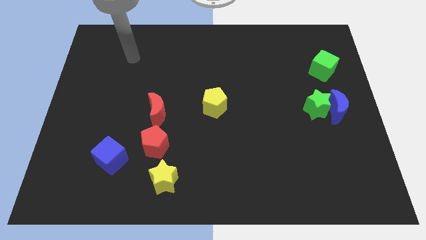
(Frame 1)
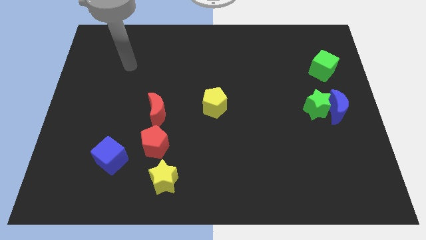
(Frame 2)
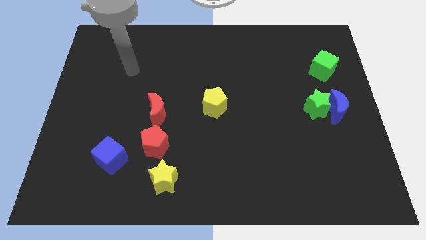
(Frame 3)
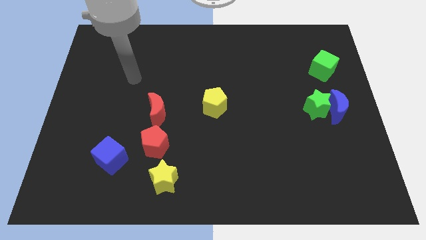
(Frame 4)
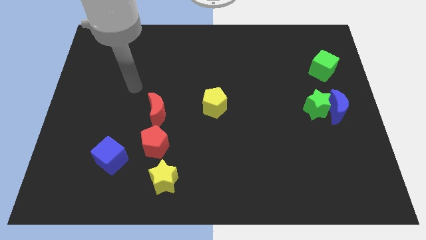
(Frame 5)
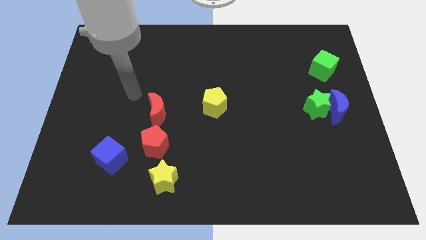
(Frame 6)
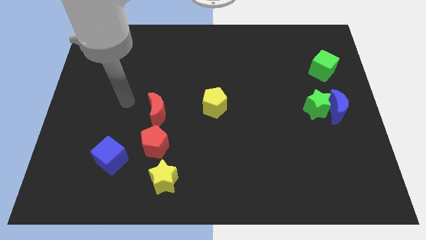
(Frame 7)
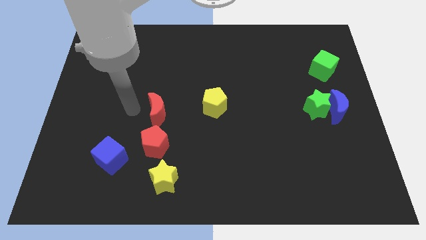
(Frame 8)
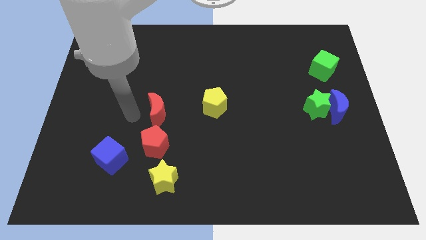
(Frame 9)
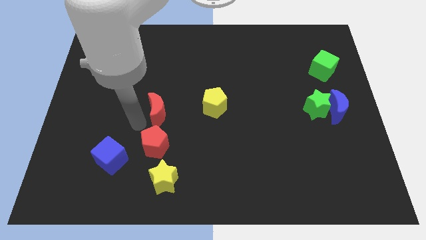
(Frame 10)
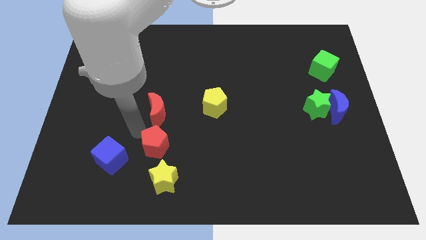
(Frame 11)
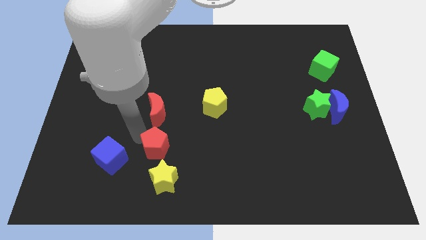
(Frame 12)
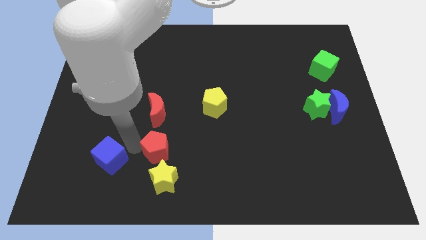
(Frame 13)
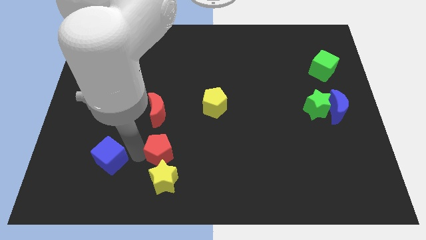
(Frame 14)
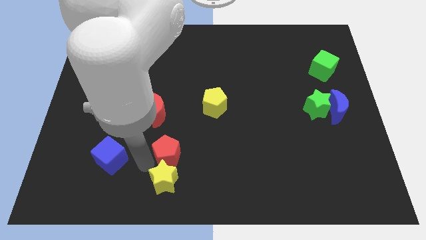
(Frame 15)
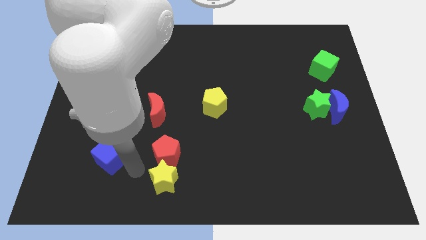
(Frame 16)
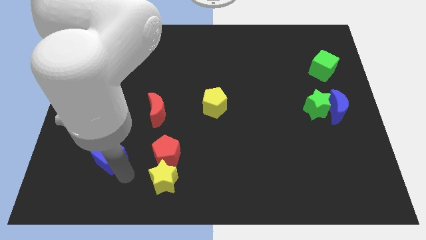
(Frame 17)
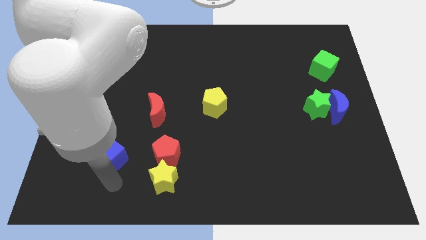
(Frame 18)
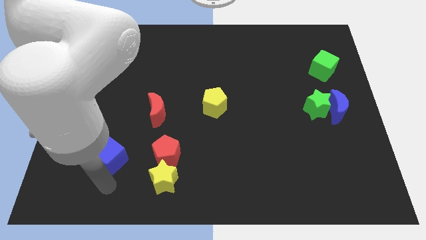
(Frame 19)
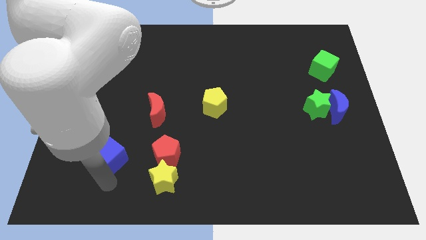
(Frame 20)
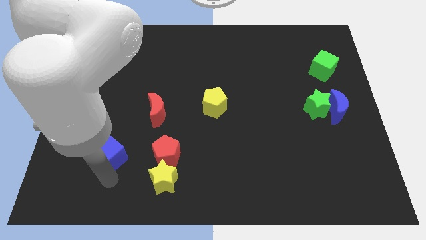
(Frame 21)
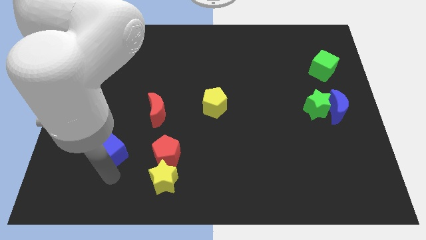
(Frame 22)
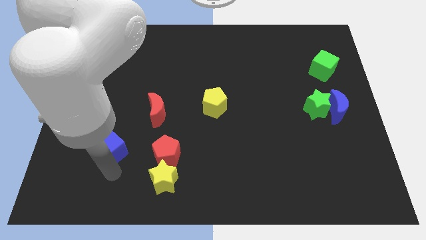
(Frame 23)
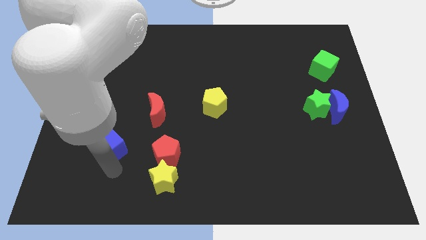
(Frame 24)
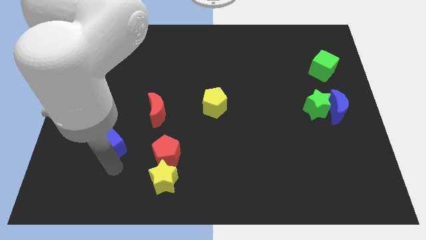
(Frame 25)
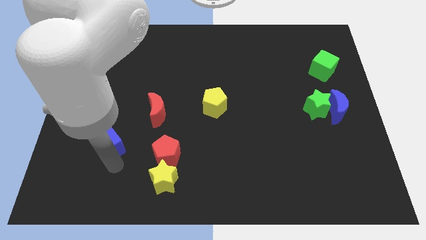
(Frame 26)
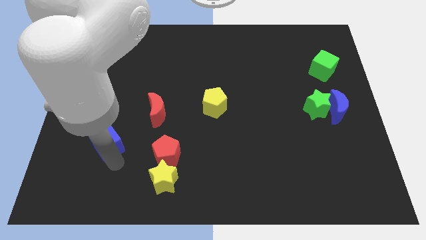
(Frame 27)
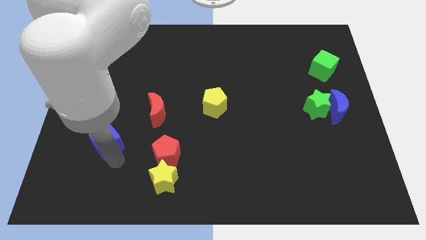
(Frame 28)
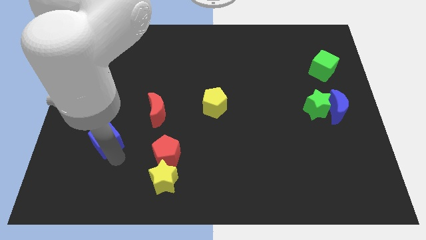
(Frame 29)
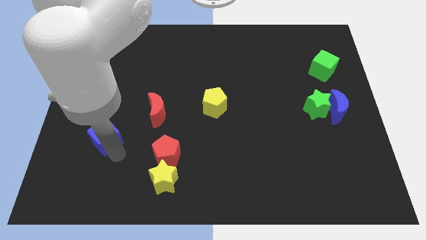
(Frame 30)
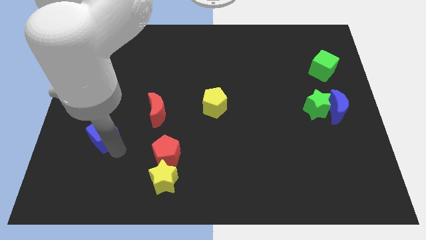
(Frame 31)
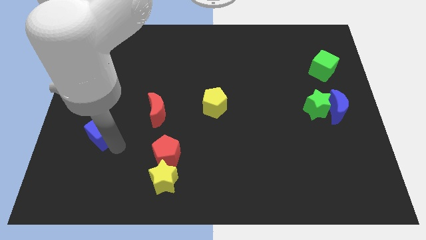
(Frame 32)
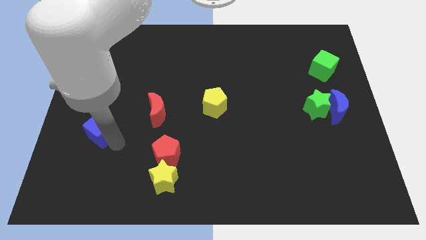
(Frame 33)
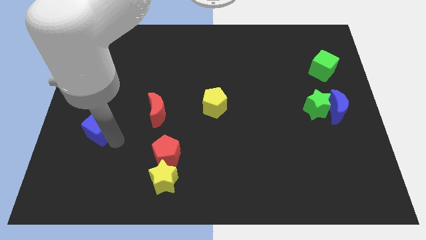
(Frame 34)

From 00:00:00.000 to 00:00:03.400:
push the blue cube slightly up

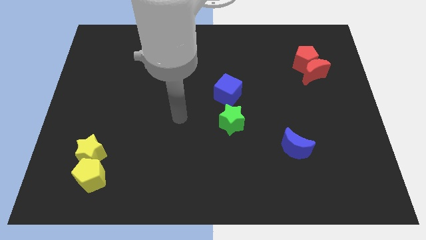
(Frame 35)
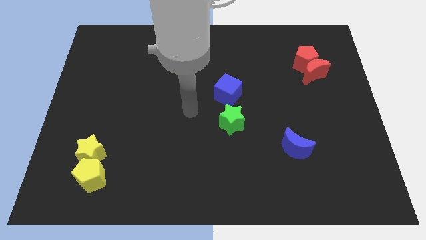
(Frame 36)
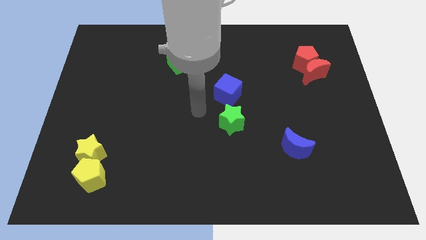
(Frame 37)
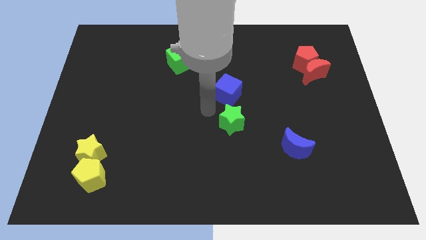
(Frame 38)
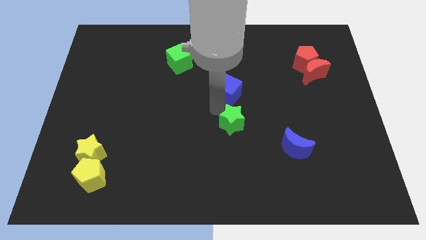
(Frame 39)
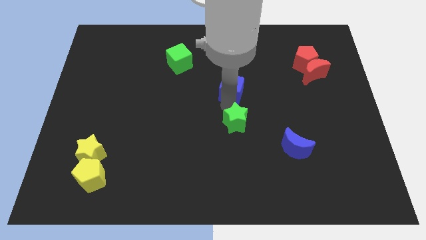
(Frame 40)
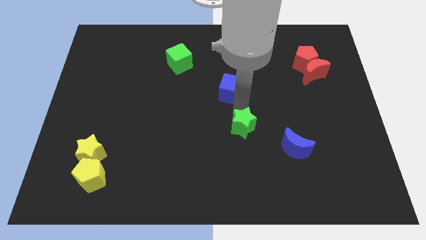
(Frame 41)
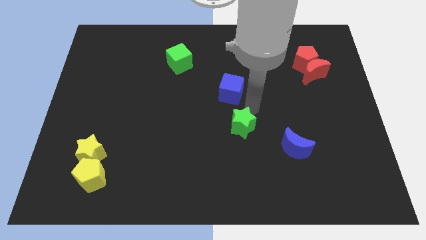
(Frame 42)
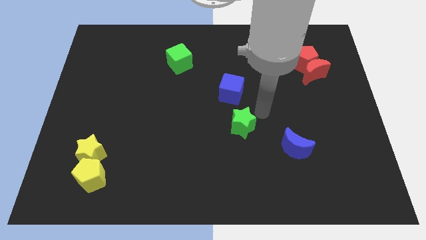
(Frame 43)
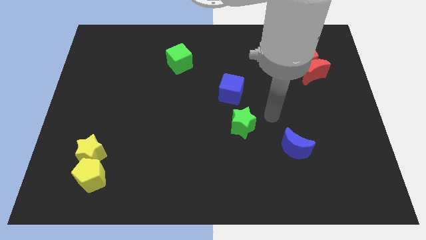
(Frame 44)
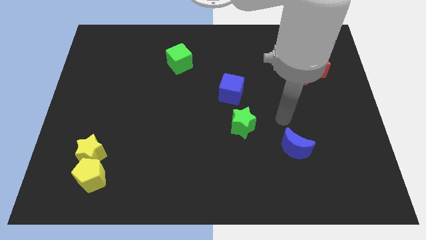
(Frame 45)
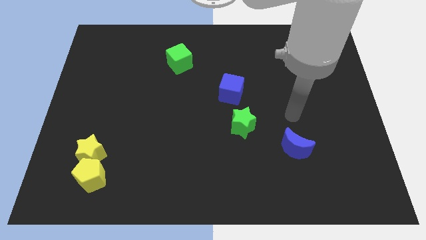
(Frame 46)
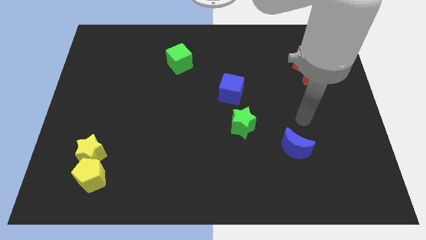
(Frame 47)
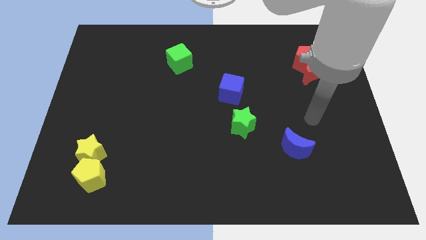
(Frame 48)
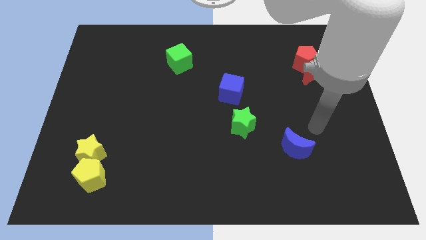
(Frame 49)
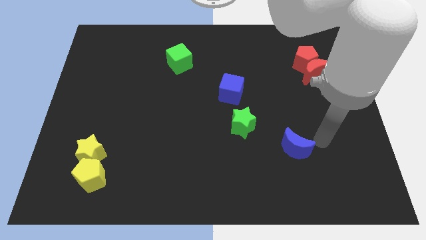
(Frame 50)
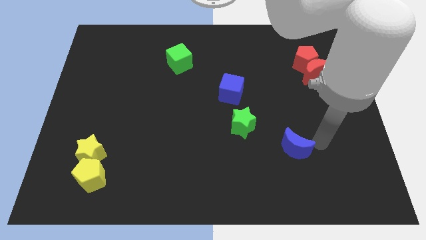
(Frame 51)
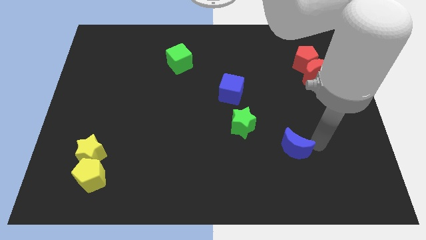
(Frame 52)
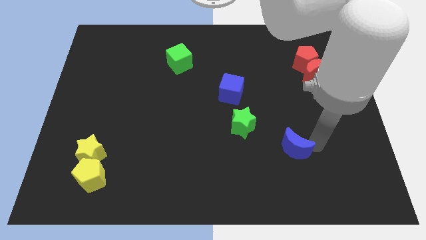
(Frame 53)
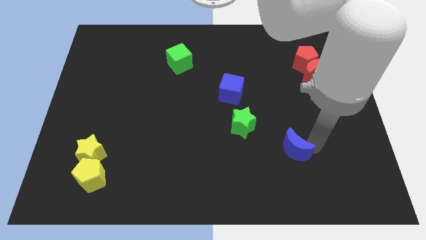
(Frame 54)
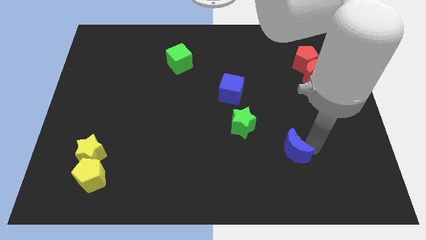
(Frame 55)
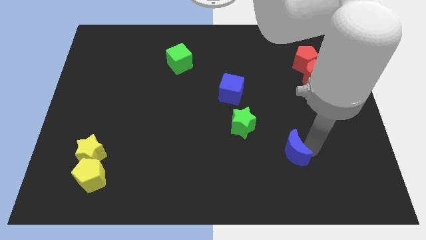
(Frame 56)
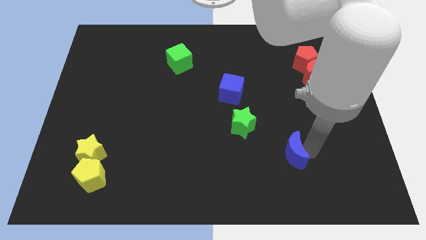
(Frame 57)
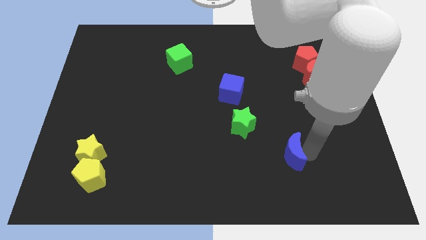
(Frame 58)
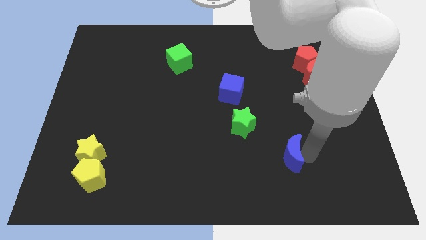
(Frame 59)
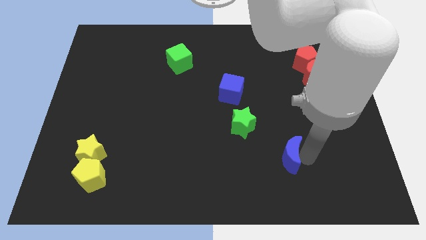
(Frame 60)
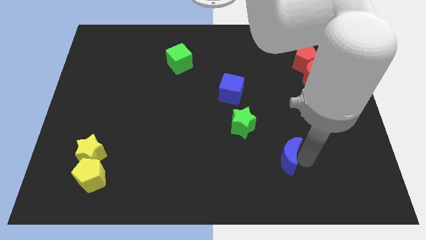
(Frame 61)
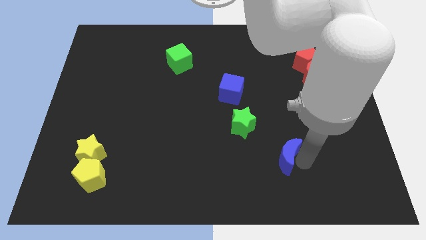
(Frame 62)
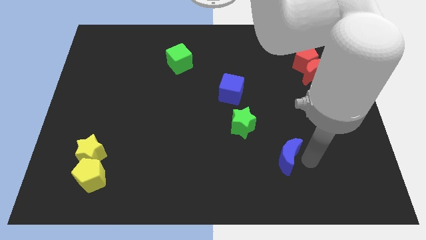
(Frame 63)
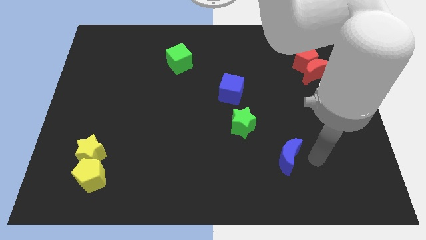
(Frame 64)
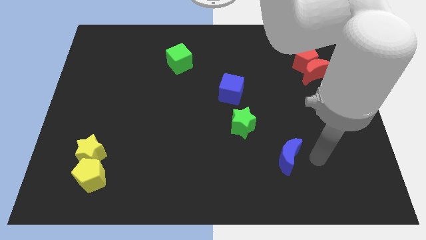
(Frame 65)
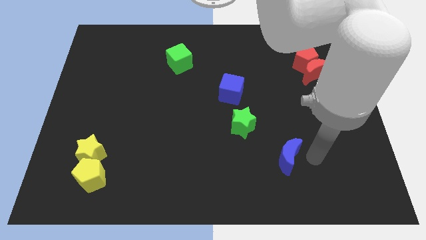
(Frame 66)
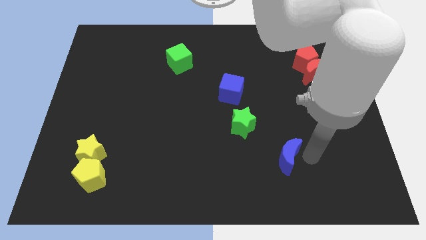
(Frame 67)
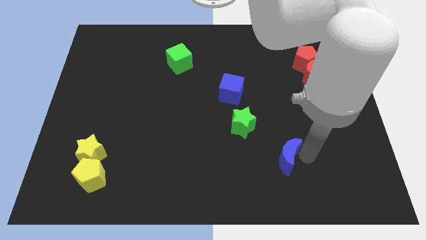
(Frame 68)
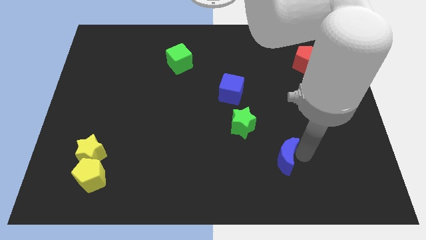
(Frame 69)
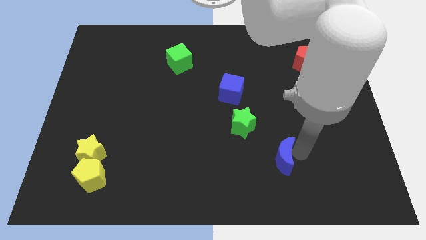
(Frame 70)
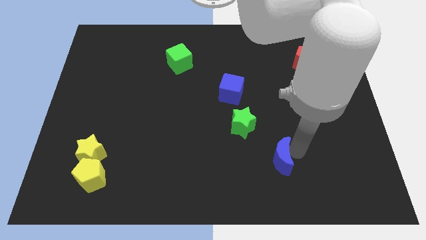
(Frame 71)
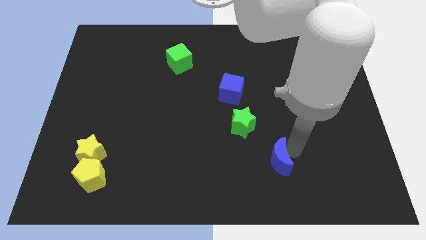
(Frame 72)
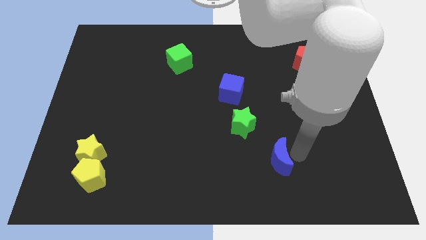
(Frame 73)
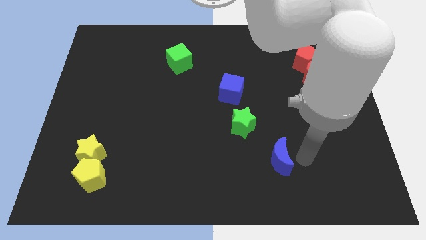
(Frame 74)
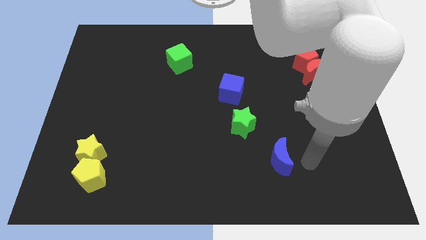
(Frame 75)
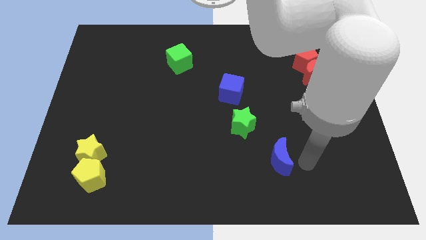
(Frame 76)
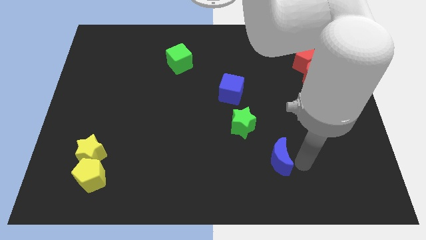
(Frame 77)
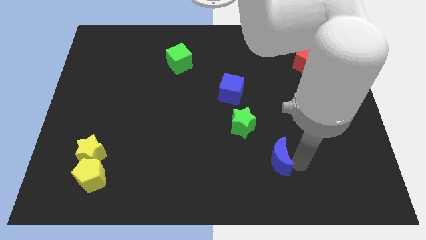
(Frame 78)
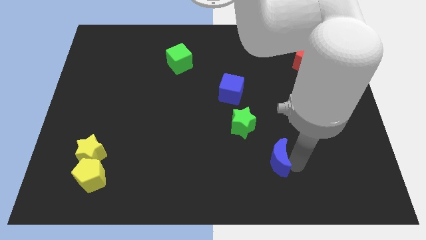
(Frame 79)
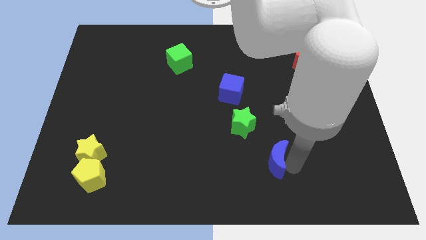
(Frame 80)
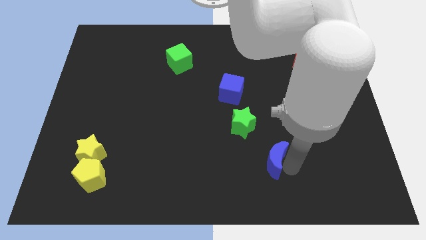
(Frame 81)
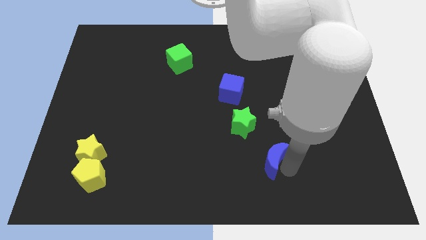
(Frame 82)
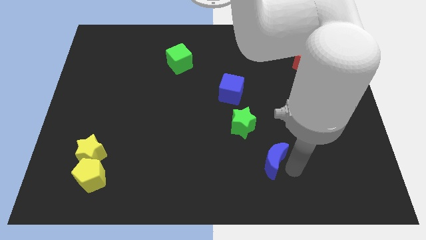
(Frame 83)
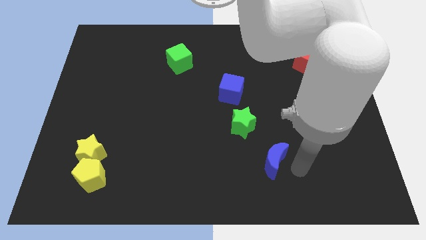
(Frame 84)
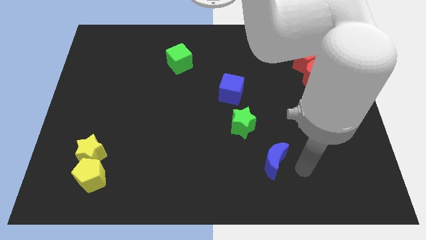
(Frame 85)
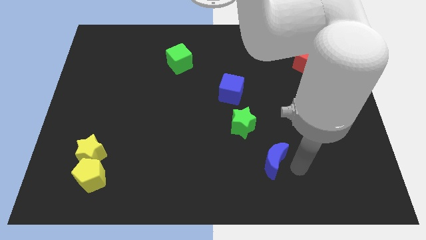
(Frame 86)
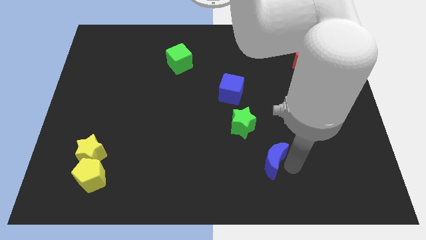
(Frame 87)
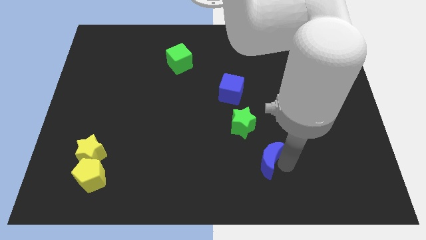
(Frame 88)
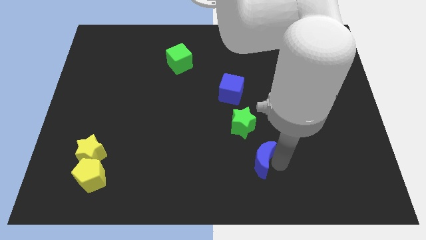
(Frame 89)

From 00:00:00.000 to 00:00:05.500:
push the blue moon to the left a little bit
